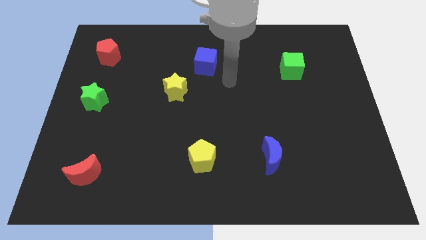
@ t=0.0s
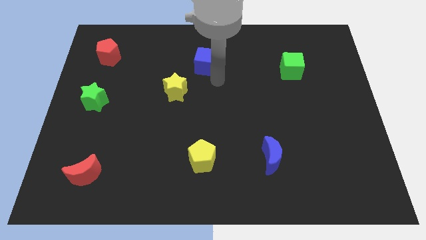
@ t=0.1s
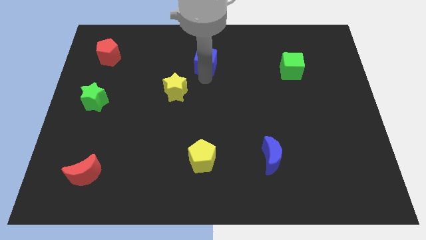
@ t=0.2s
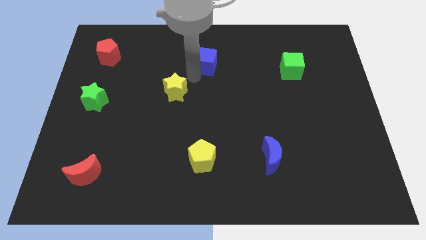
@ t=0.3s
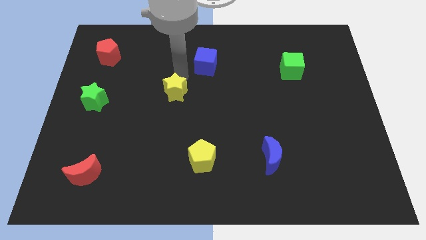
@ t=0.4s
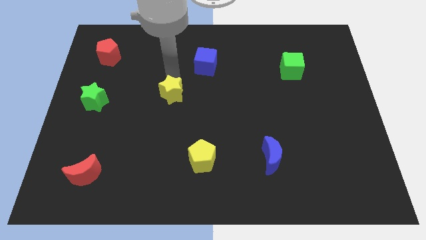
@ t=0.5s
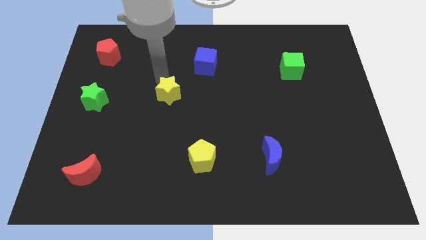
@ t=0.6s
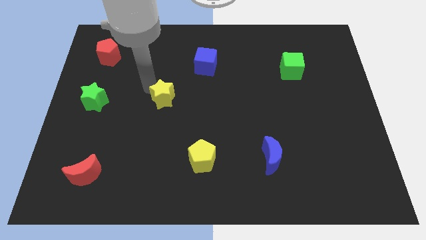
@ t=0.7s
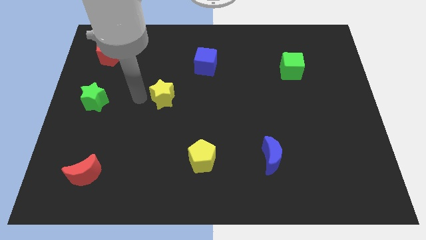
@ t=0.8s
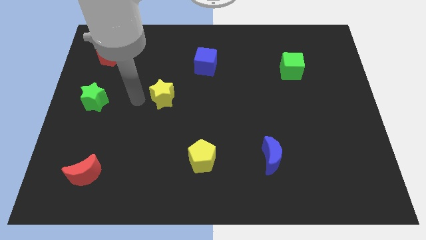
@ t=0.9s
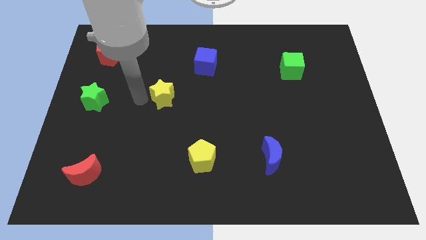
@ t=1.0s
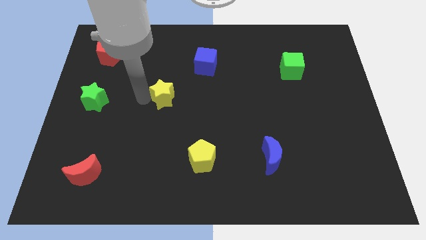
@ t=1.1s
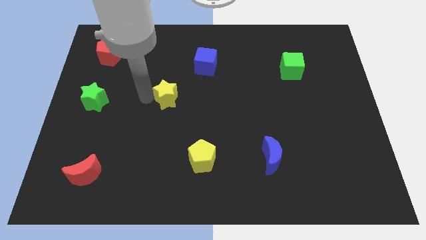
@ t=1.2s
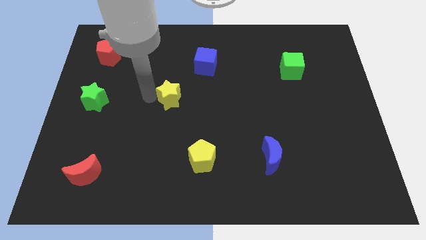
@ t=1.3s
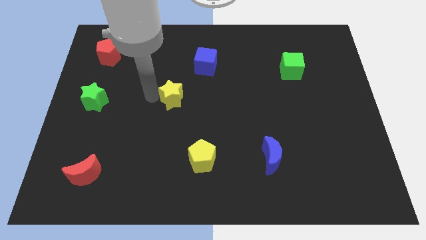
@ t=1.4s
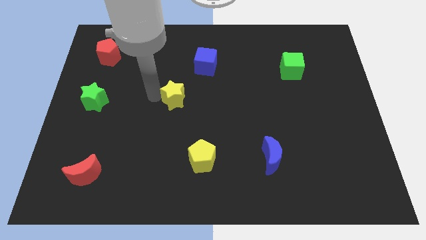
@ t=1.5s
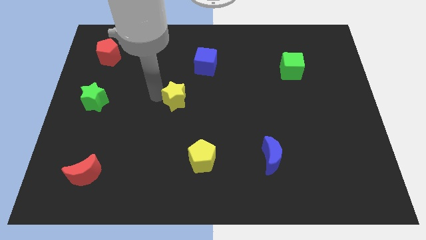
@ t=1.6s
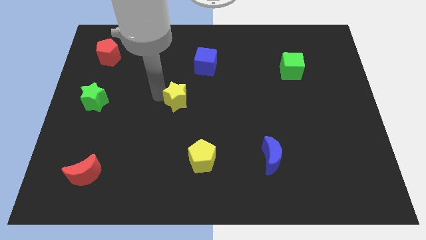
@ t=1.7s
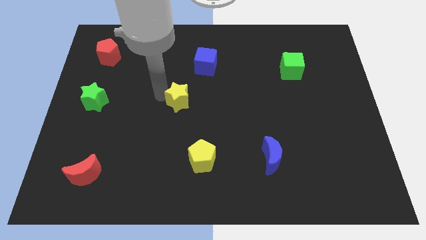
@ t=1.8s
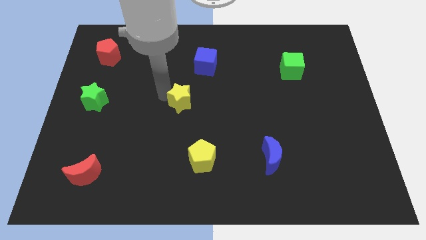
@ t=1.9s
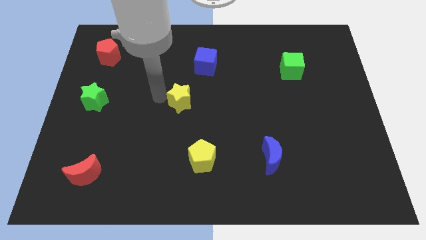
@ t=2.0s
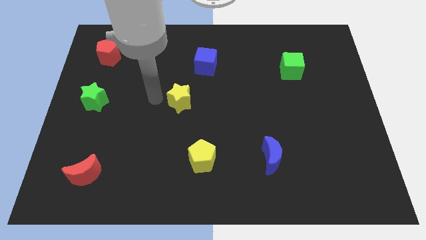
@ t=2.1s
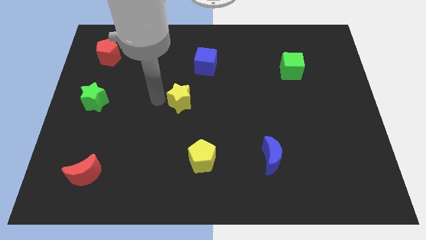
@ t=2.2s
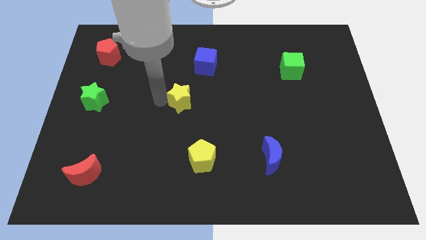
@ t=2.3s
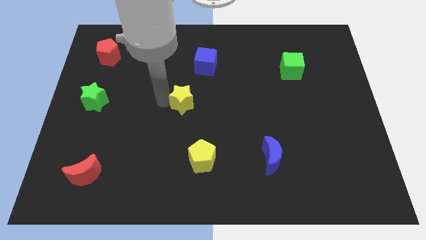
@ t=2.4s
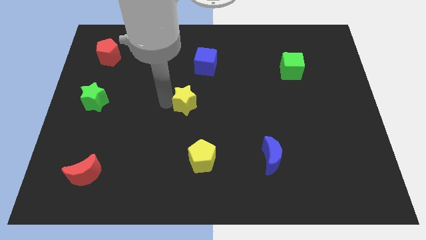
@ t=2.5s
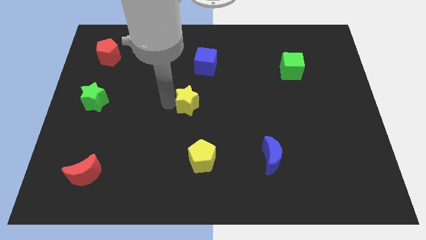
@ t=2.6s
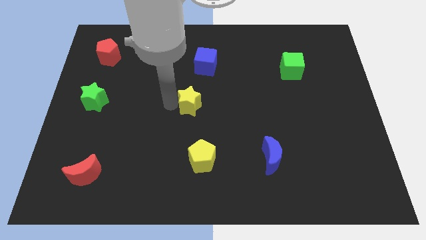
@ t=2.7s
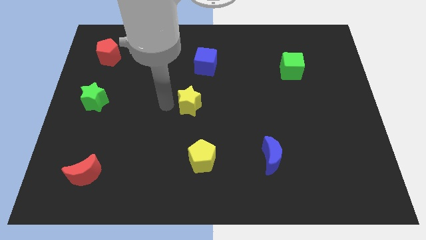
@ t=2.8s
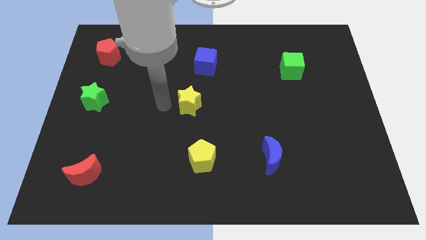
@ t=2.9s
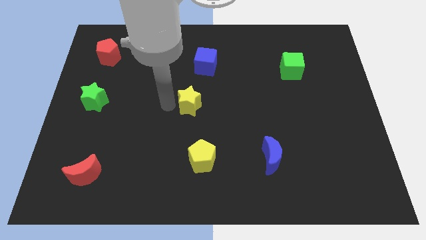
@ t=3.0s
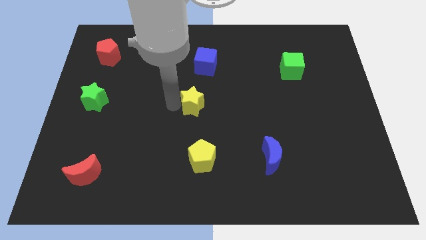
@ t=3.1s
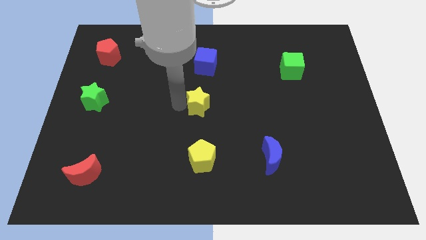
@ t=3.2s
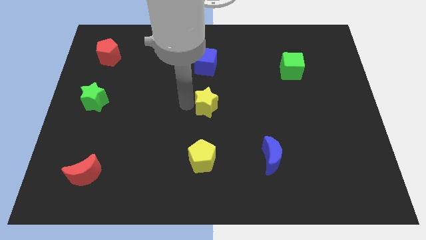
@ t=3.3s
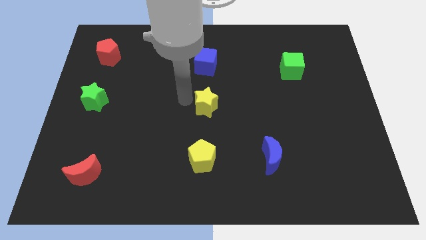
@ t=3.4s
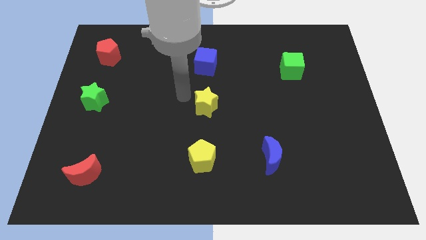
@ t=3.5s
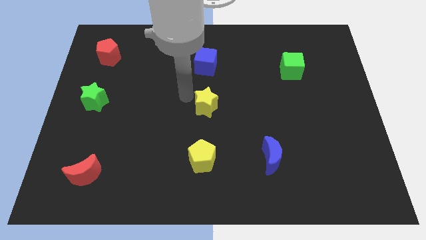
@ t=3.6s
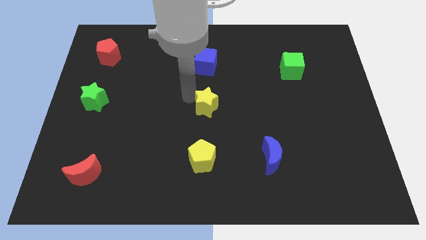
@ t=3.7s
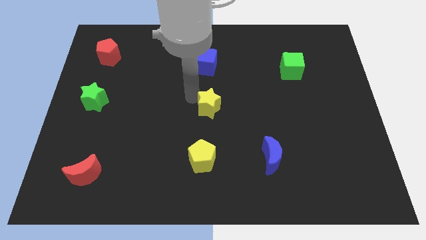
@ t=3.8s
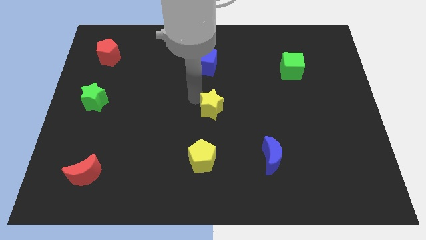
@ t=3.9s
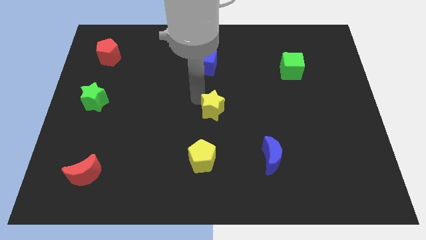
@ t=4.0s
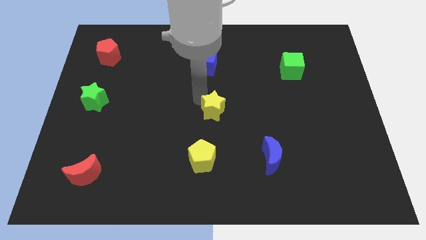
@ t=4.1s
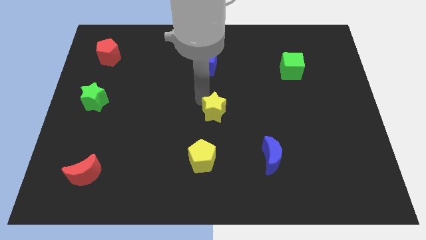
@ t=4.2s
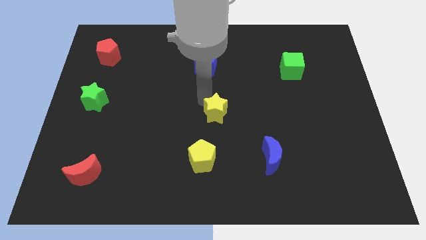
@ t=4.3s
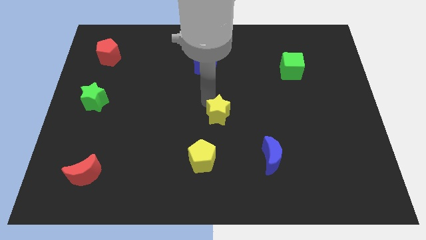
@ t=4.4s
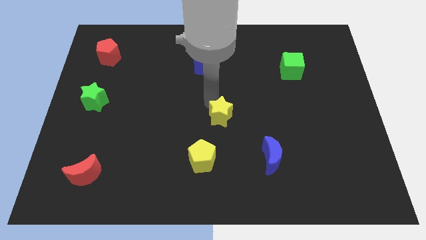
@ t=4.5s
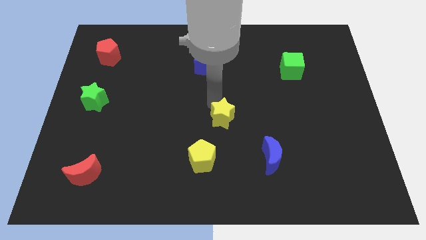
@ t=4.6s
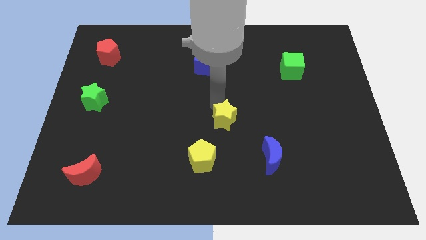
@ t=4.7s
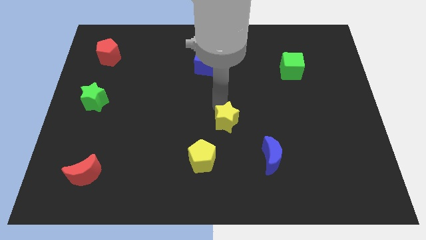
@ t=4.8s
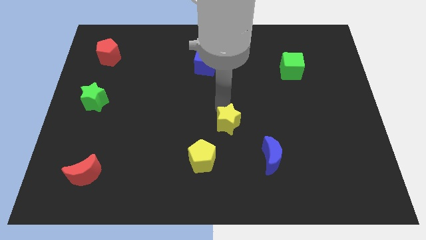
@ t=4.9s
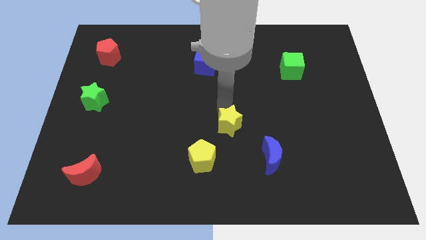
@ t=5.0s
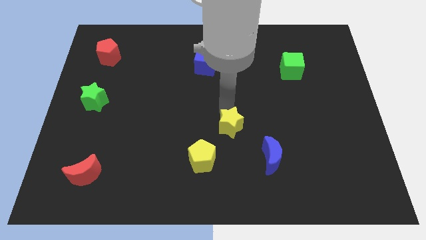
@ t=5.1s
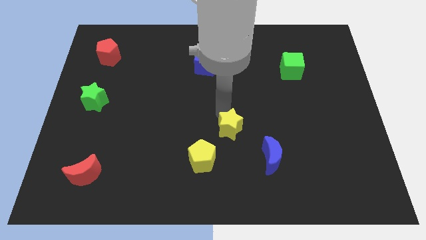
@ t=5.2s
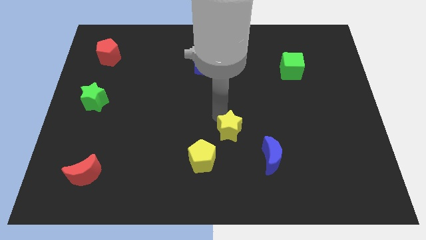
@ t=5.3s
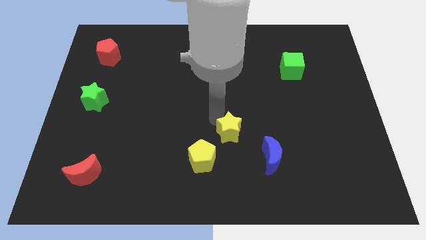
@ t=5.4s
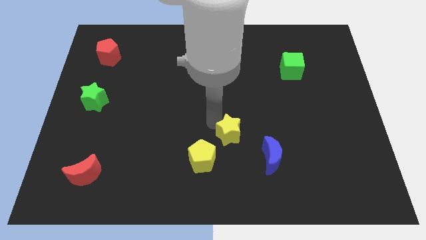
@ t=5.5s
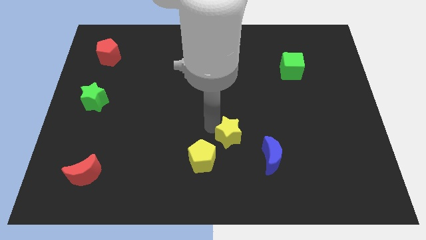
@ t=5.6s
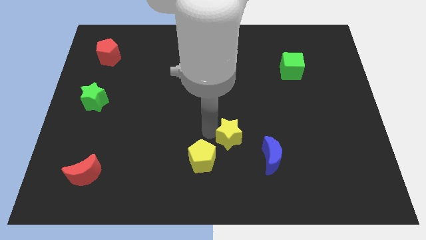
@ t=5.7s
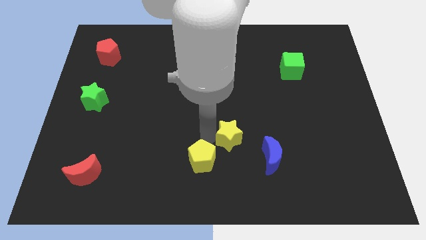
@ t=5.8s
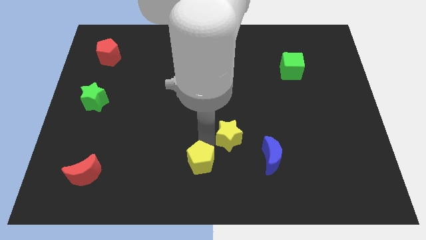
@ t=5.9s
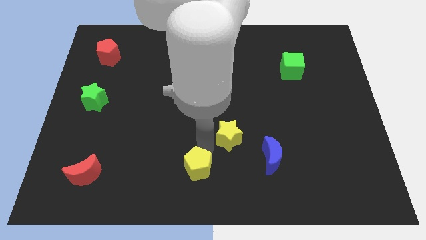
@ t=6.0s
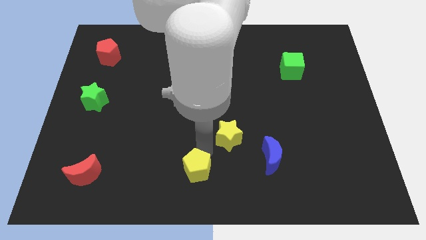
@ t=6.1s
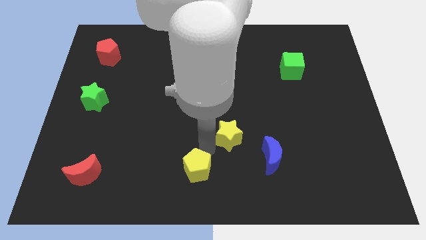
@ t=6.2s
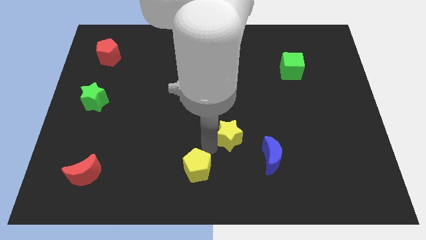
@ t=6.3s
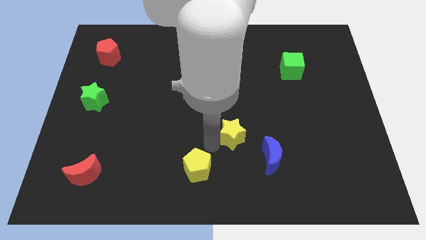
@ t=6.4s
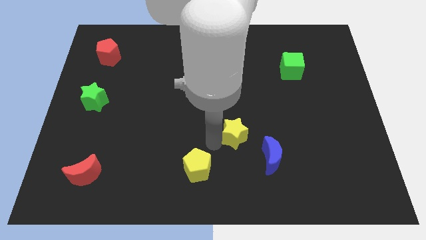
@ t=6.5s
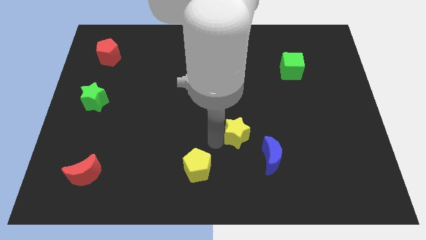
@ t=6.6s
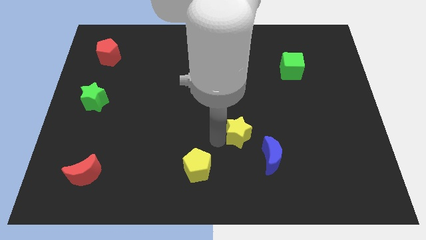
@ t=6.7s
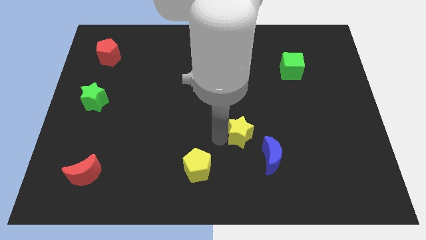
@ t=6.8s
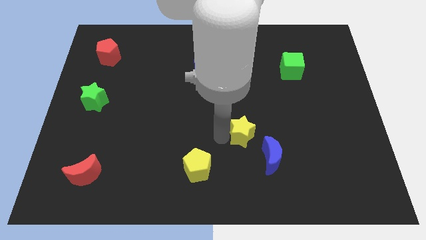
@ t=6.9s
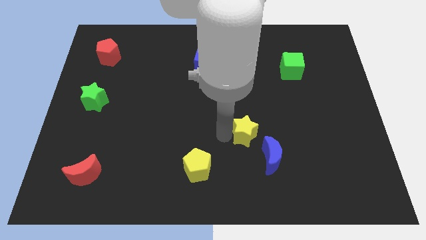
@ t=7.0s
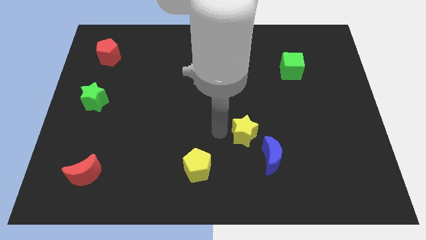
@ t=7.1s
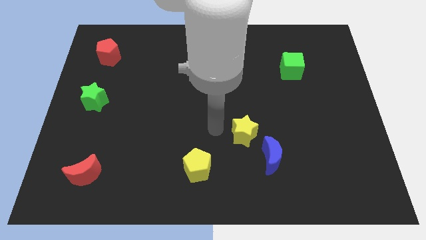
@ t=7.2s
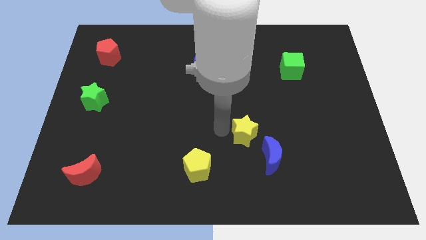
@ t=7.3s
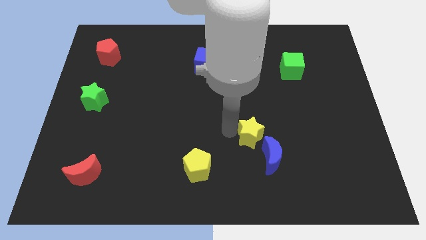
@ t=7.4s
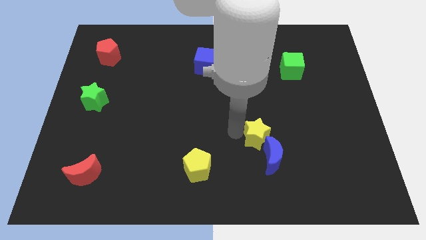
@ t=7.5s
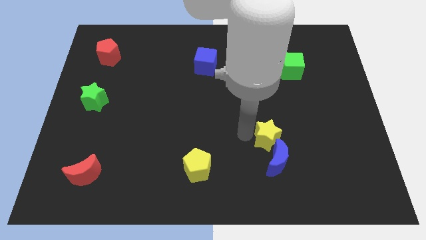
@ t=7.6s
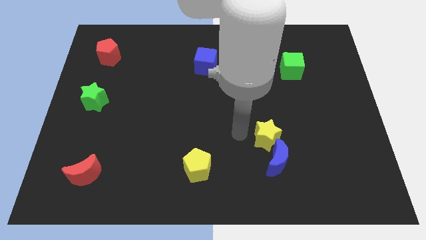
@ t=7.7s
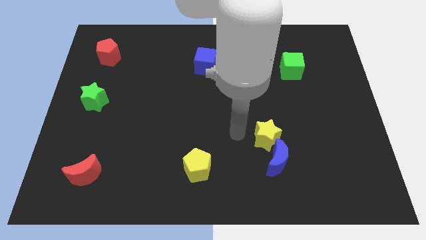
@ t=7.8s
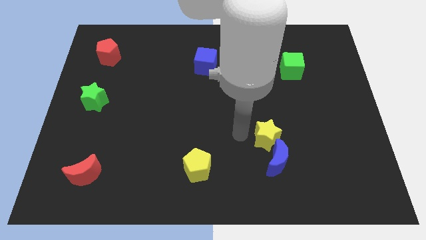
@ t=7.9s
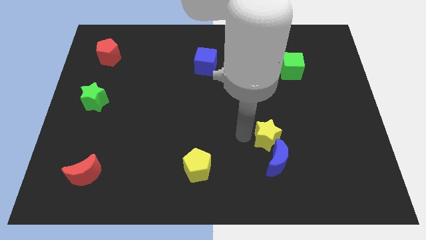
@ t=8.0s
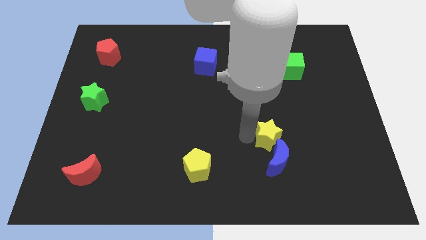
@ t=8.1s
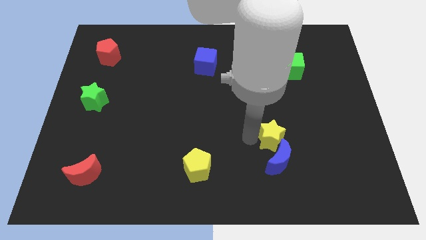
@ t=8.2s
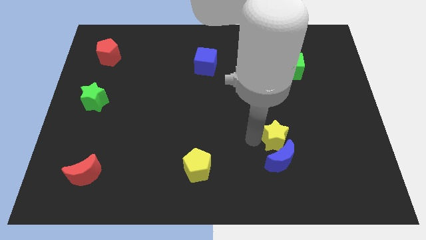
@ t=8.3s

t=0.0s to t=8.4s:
put the yellow star to the top right side of the blue moon
